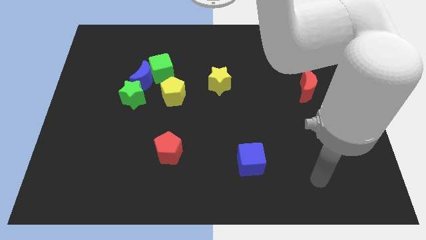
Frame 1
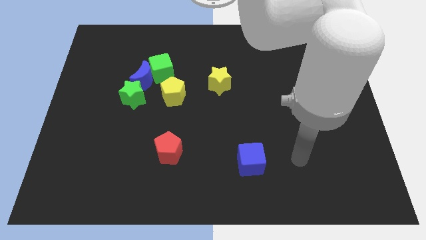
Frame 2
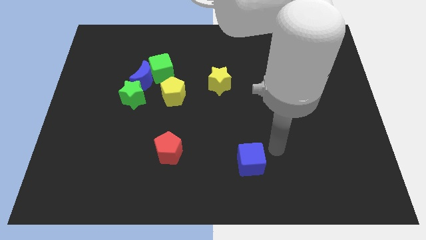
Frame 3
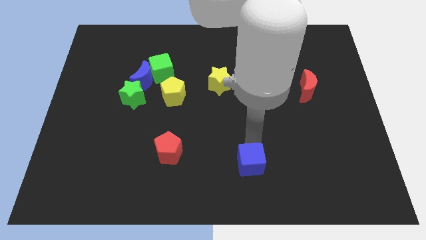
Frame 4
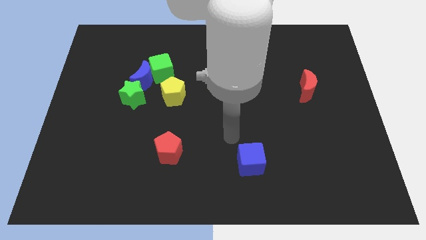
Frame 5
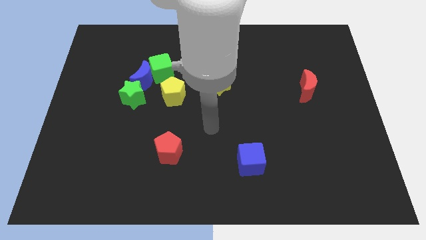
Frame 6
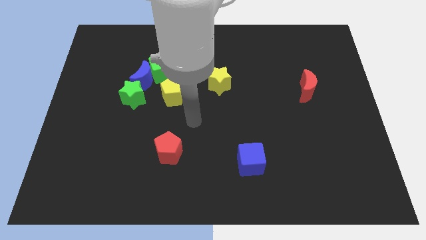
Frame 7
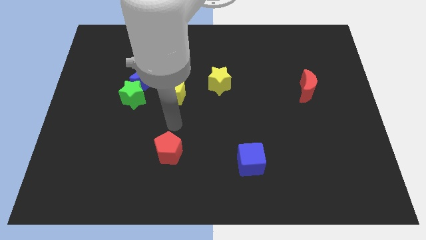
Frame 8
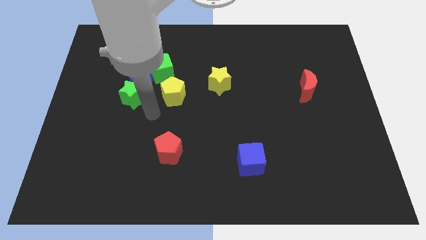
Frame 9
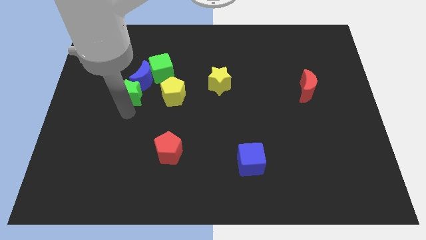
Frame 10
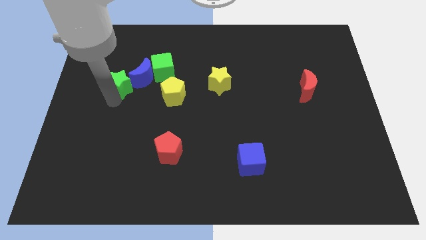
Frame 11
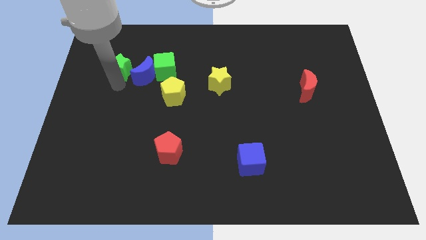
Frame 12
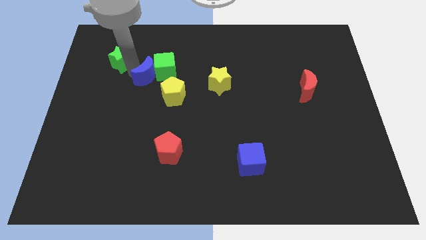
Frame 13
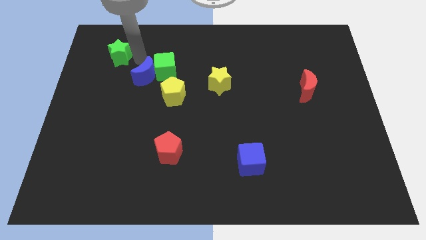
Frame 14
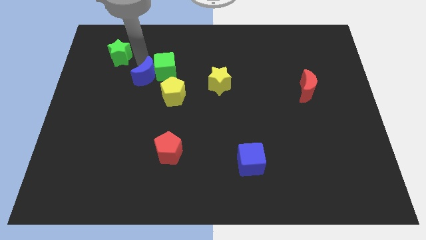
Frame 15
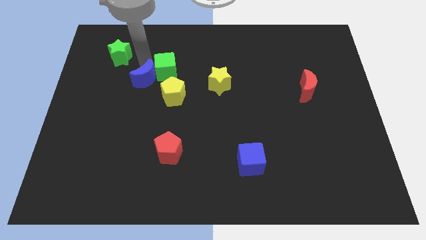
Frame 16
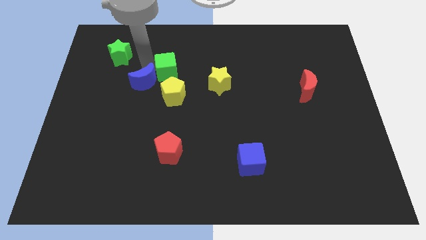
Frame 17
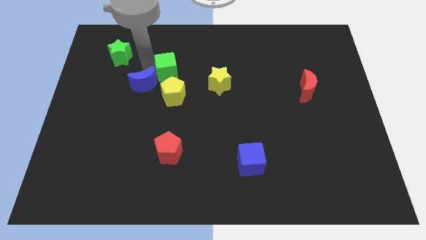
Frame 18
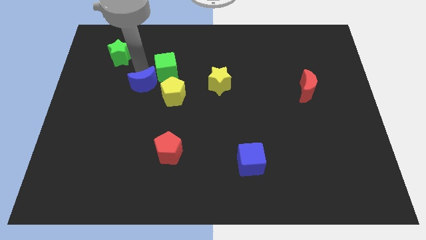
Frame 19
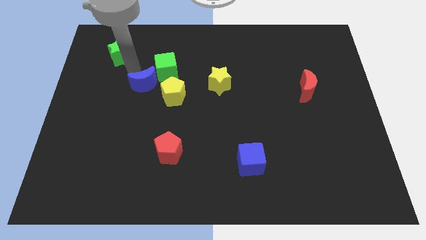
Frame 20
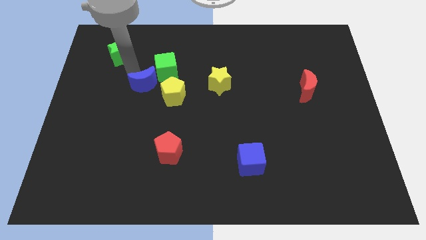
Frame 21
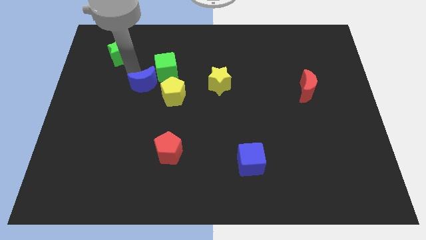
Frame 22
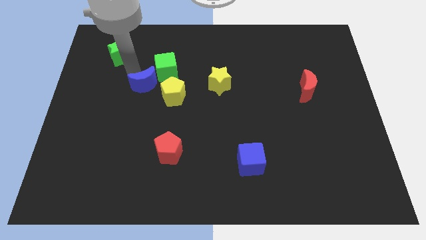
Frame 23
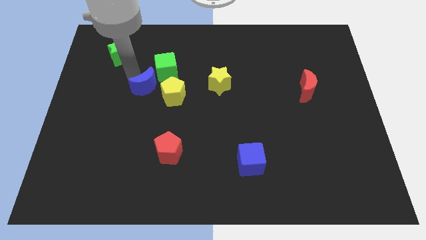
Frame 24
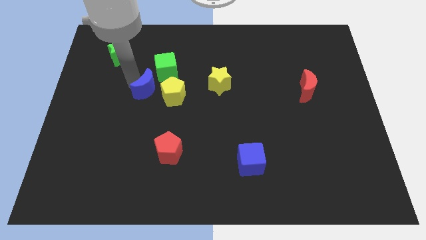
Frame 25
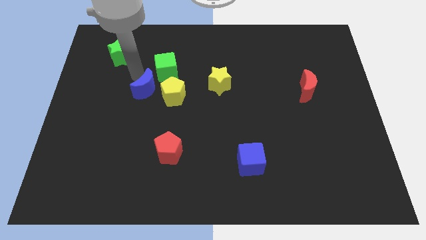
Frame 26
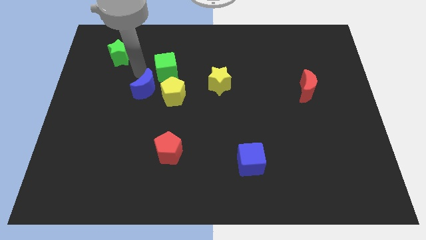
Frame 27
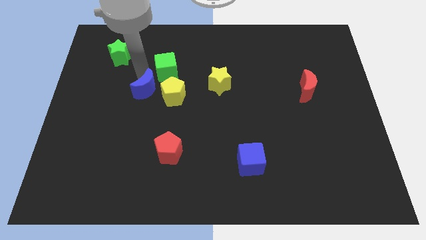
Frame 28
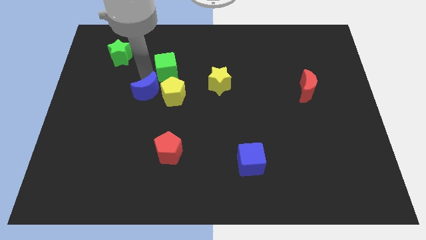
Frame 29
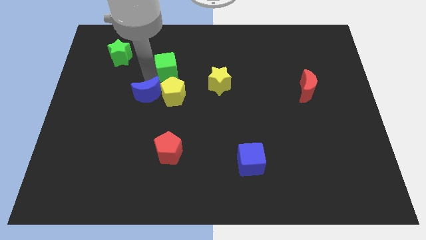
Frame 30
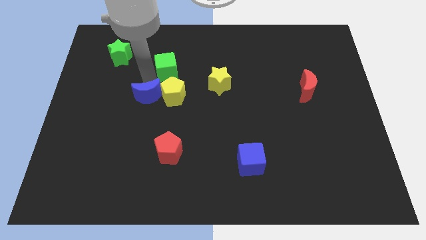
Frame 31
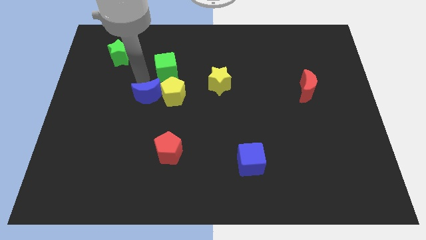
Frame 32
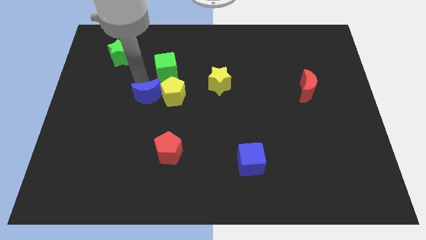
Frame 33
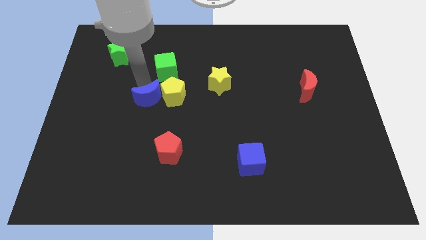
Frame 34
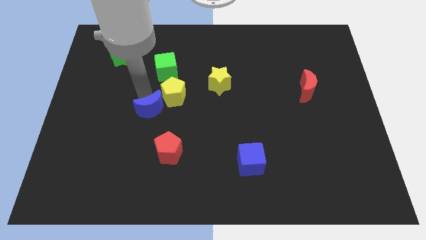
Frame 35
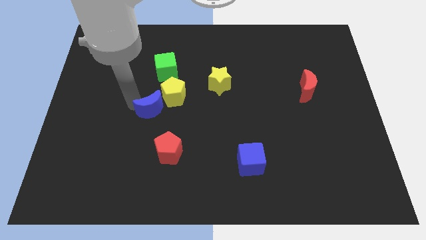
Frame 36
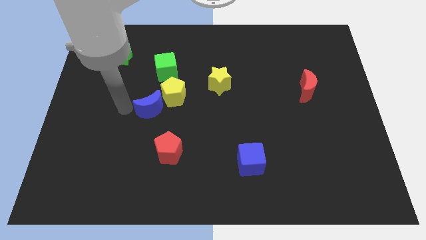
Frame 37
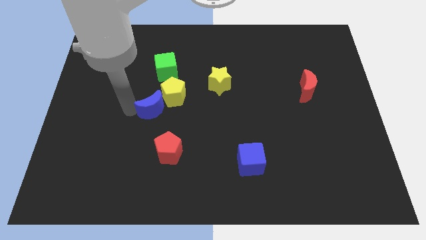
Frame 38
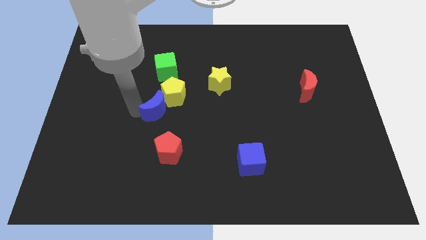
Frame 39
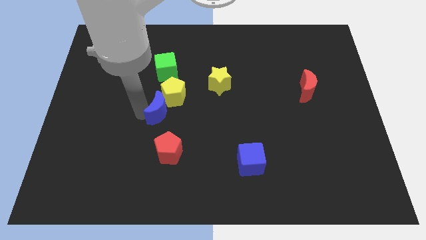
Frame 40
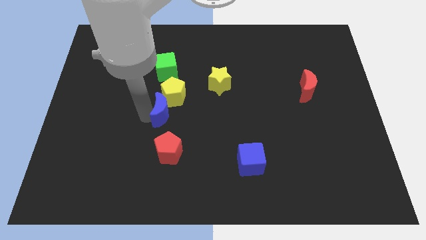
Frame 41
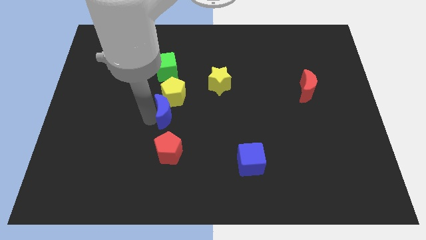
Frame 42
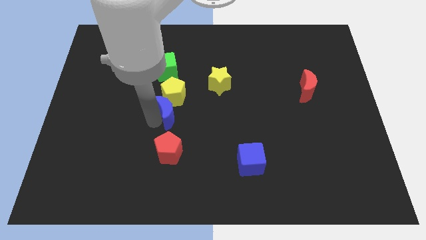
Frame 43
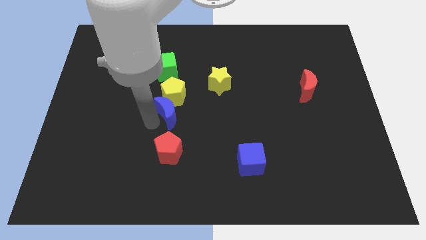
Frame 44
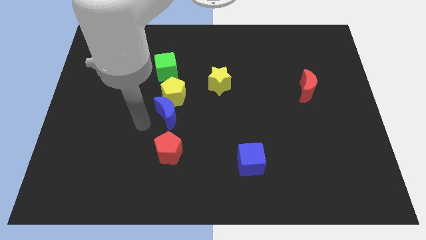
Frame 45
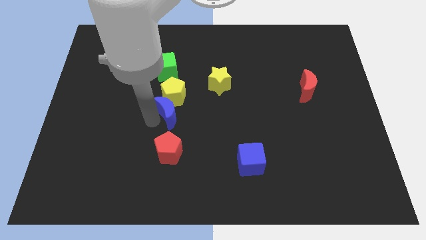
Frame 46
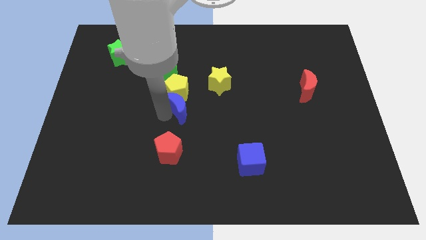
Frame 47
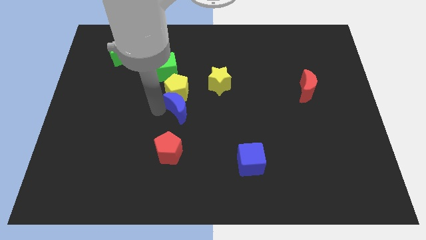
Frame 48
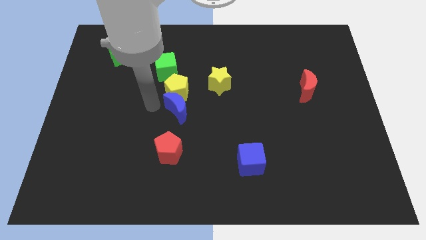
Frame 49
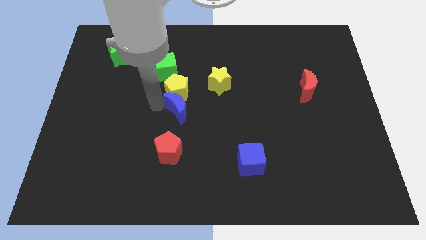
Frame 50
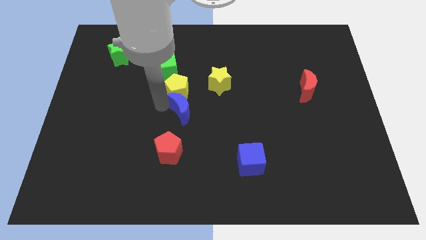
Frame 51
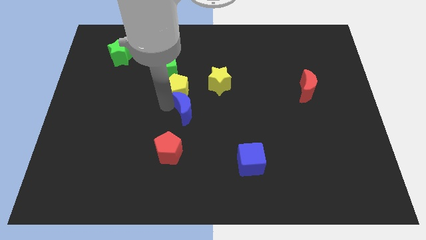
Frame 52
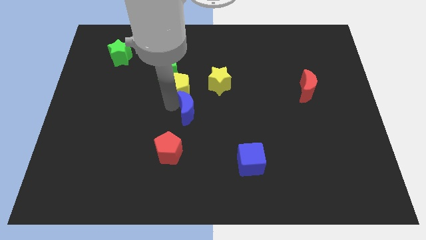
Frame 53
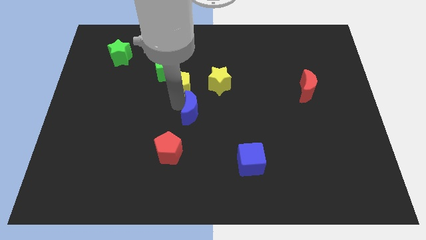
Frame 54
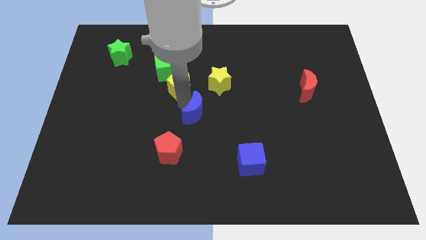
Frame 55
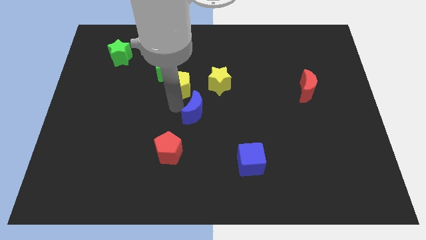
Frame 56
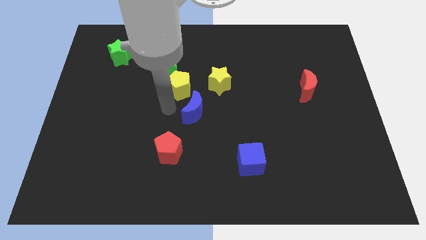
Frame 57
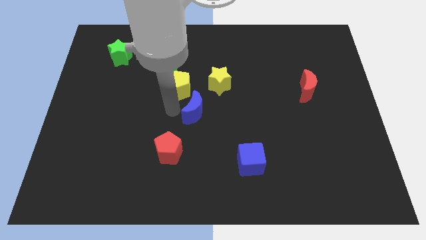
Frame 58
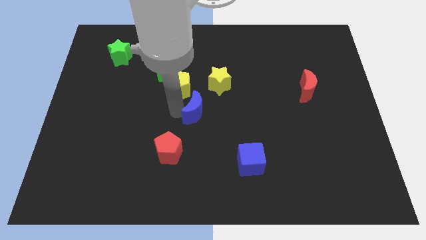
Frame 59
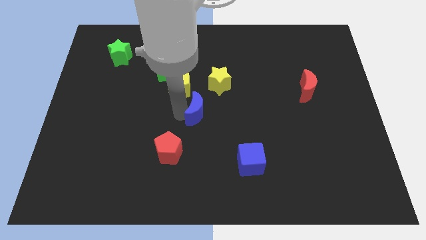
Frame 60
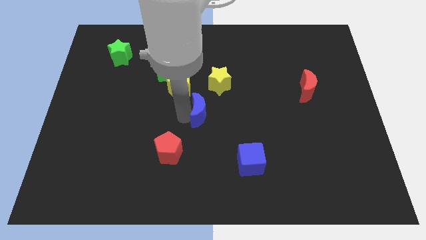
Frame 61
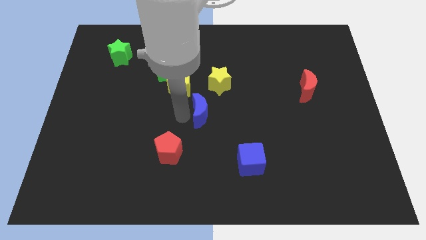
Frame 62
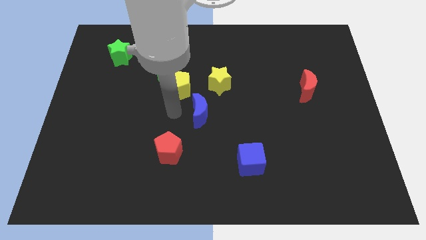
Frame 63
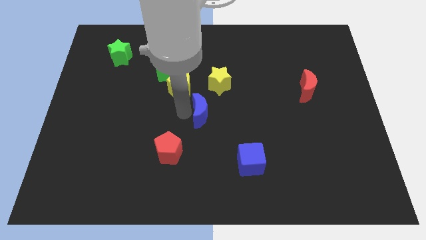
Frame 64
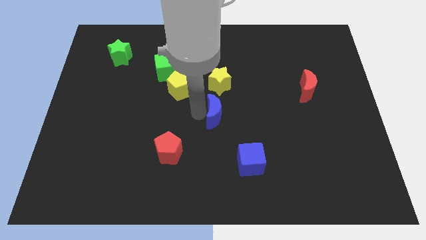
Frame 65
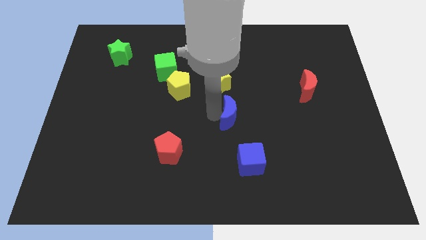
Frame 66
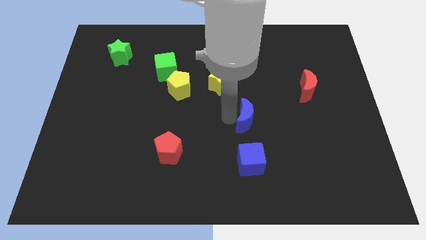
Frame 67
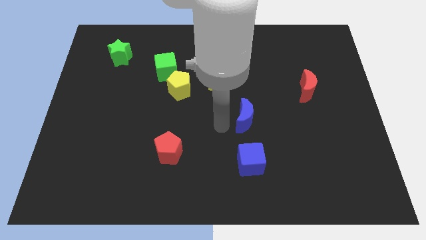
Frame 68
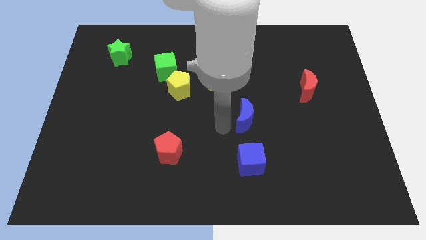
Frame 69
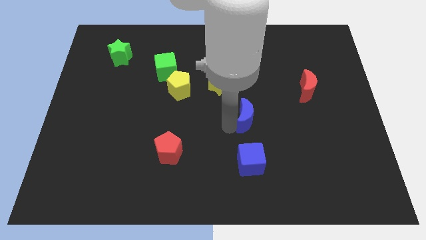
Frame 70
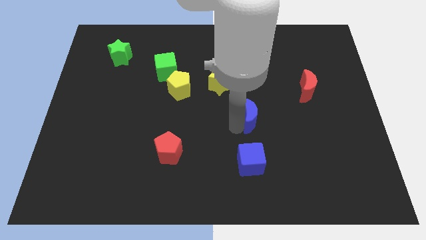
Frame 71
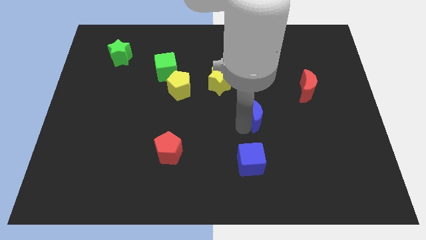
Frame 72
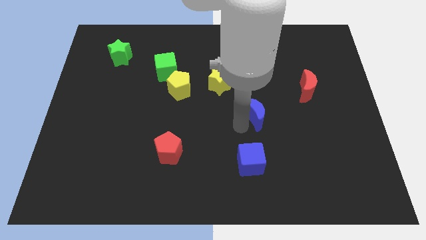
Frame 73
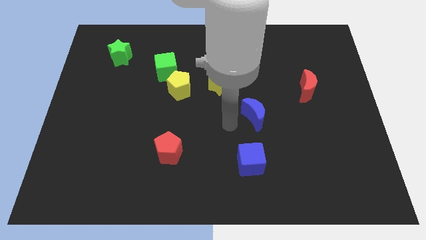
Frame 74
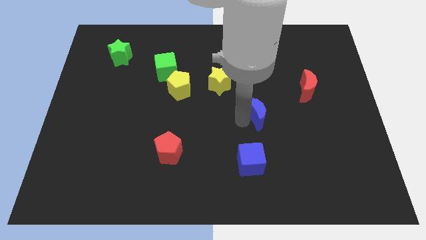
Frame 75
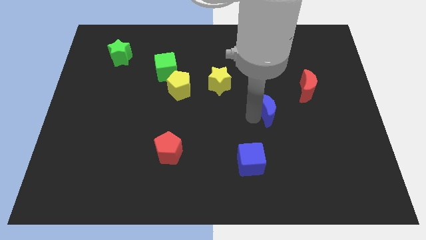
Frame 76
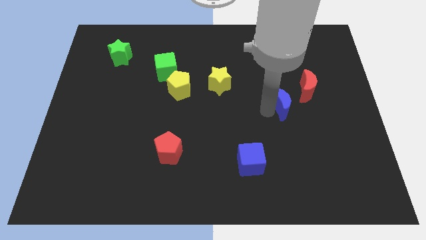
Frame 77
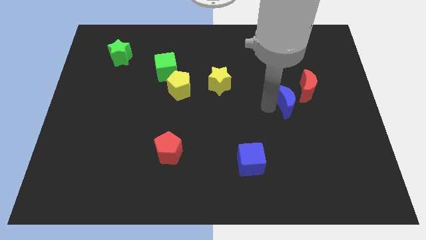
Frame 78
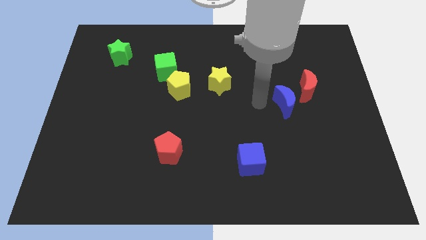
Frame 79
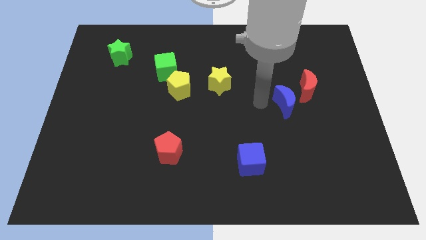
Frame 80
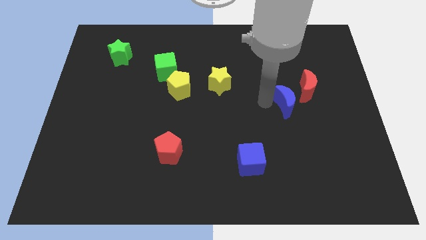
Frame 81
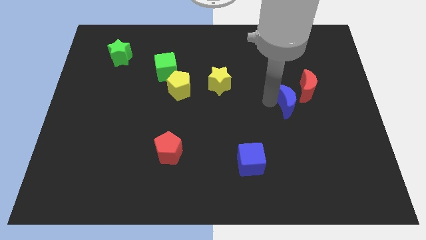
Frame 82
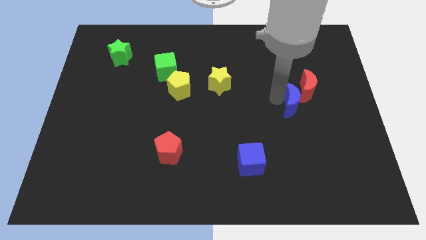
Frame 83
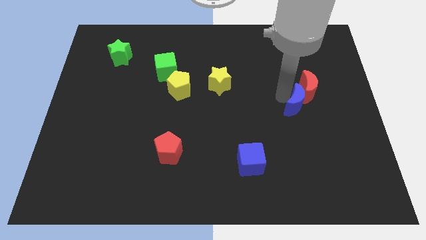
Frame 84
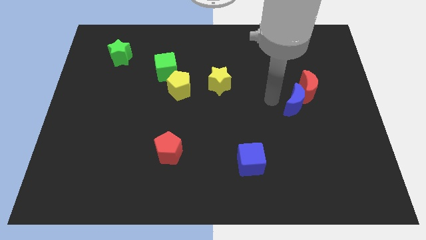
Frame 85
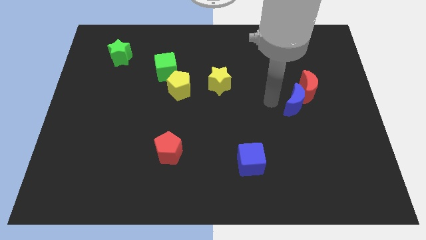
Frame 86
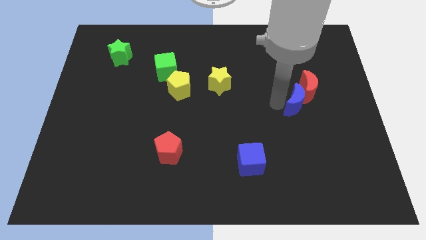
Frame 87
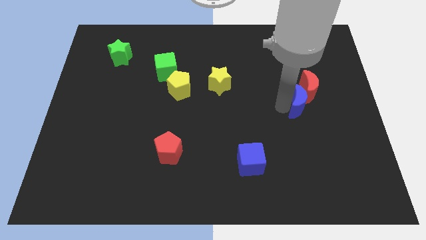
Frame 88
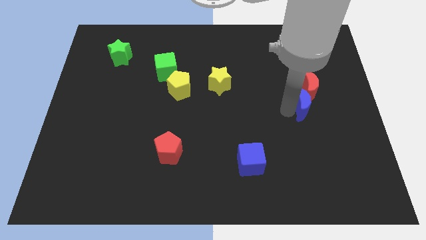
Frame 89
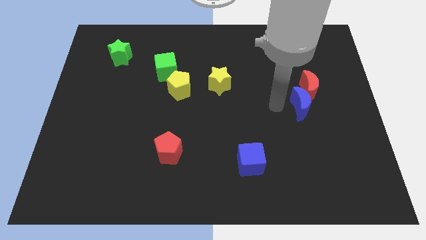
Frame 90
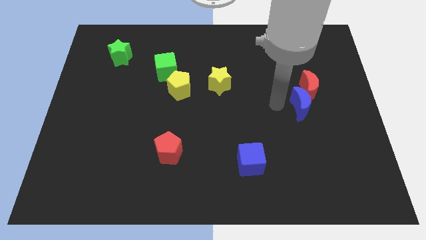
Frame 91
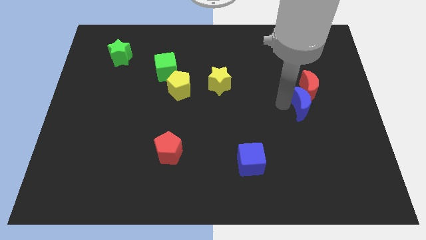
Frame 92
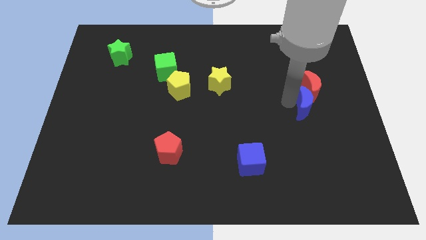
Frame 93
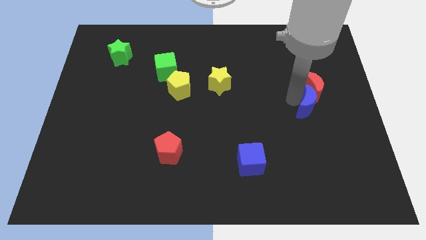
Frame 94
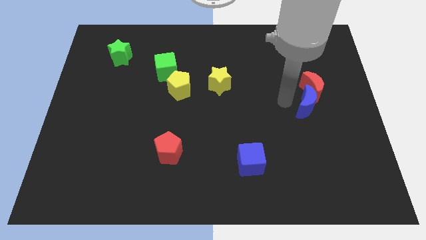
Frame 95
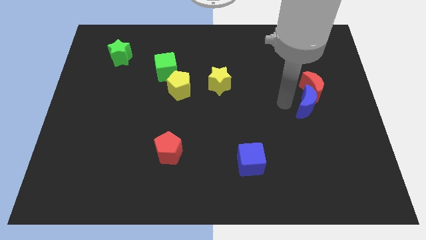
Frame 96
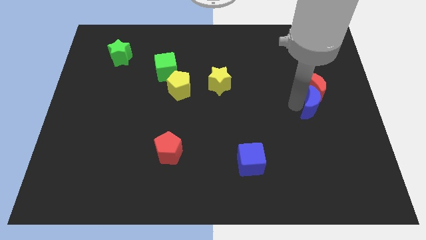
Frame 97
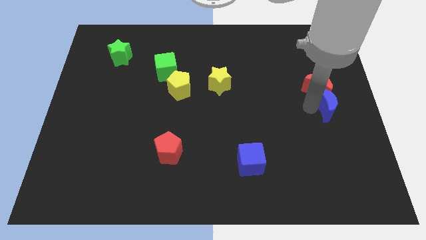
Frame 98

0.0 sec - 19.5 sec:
put the blue moon to the right side
